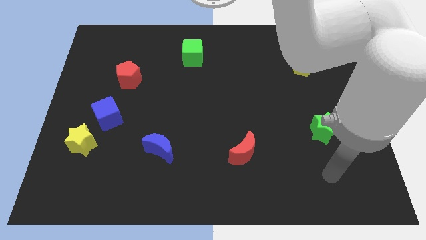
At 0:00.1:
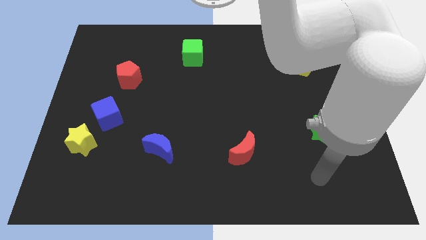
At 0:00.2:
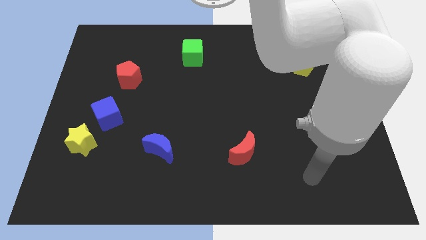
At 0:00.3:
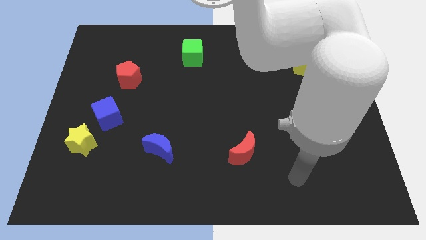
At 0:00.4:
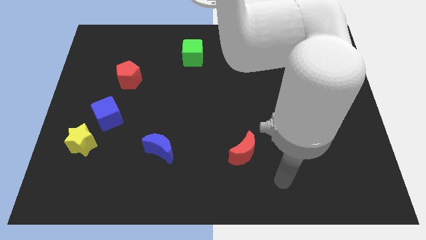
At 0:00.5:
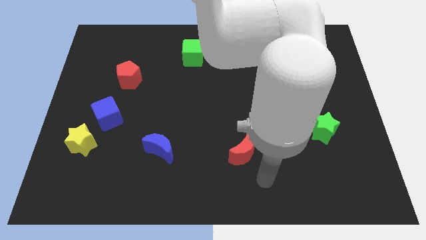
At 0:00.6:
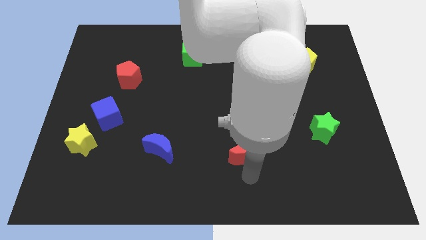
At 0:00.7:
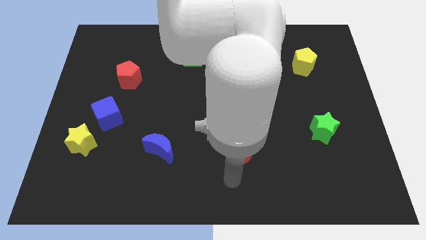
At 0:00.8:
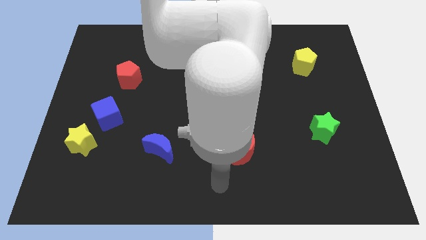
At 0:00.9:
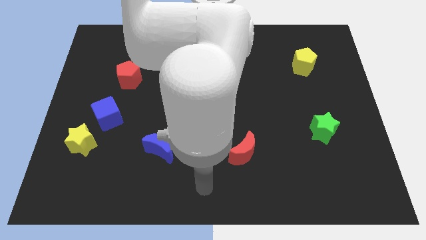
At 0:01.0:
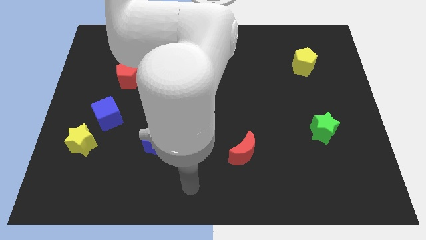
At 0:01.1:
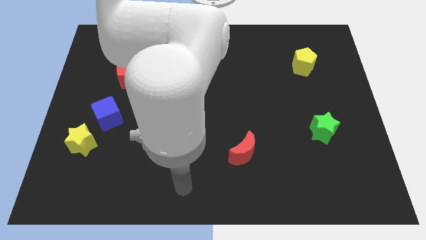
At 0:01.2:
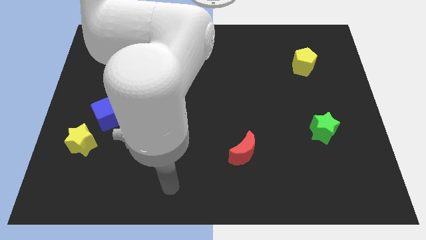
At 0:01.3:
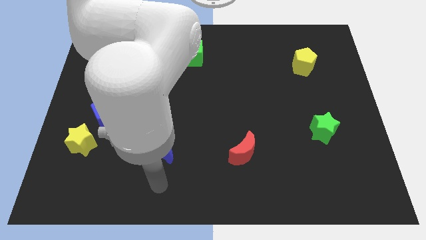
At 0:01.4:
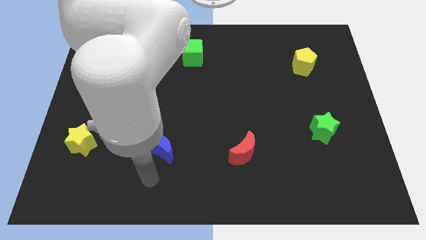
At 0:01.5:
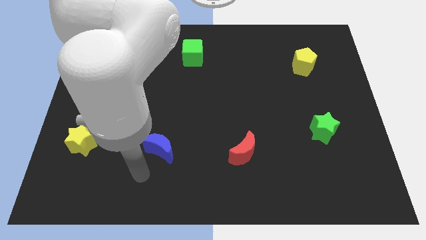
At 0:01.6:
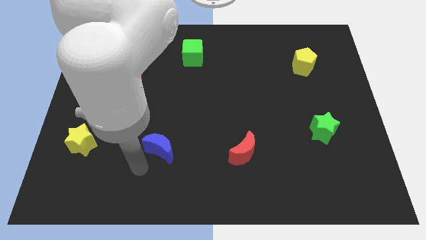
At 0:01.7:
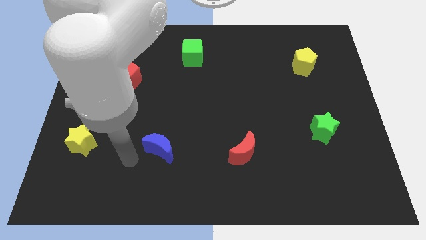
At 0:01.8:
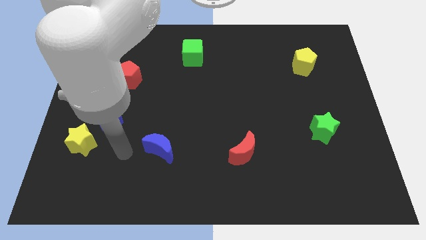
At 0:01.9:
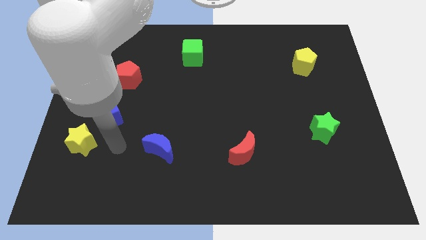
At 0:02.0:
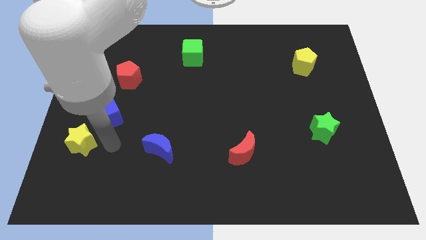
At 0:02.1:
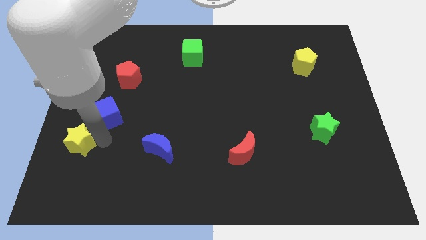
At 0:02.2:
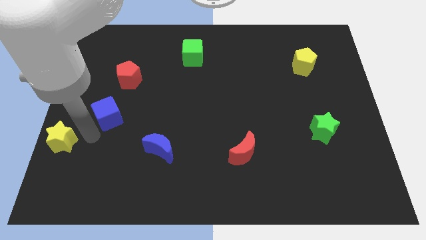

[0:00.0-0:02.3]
pull the blue cube apart from the yellow star

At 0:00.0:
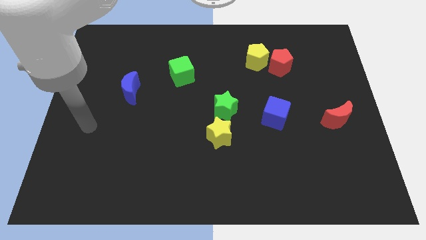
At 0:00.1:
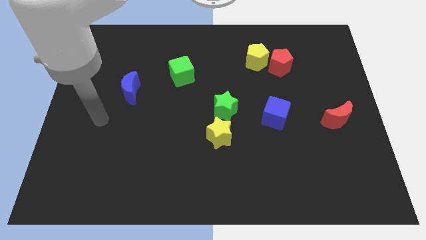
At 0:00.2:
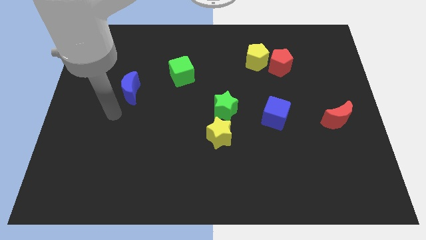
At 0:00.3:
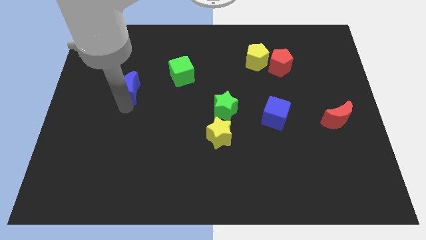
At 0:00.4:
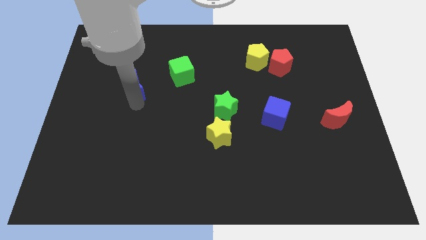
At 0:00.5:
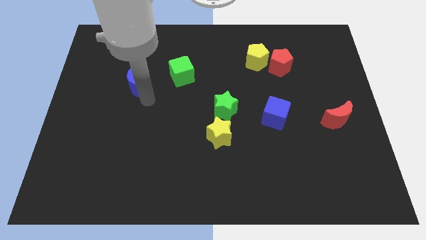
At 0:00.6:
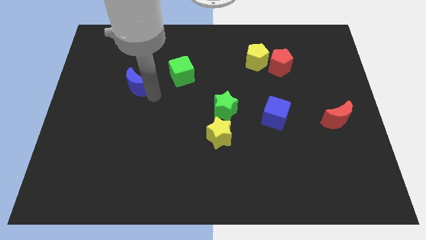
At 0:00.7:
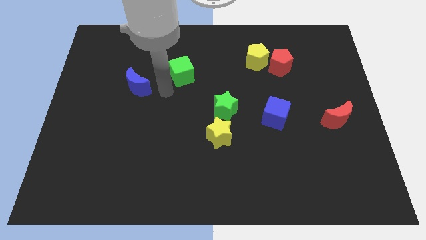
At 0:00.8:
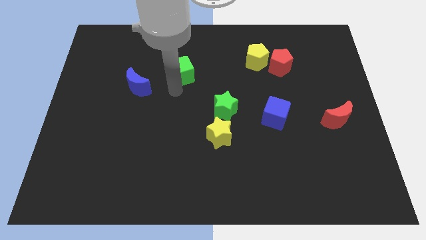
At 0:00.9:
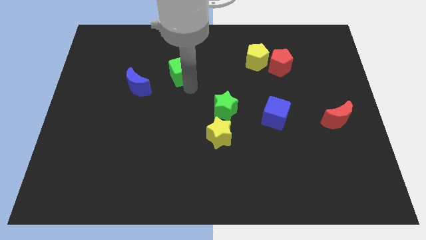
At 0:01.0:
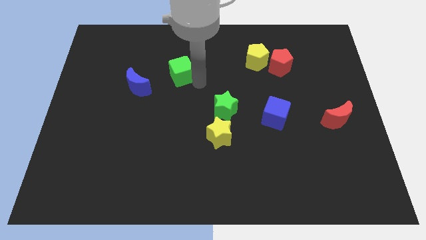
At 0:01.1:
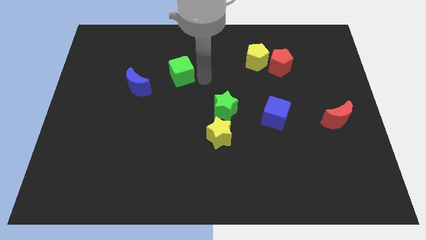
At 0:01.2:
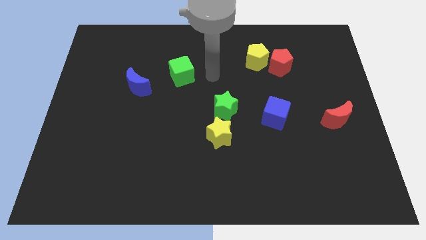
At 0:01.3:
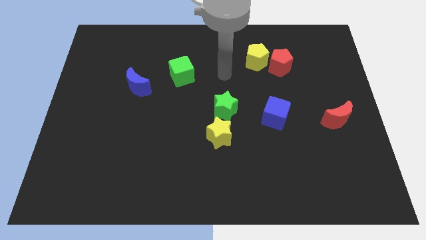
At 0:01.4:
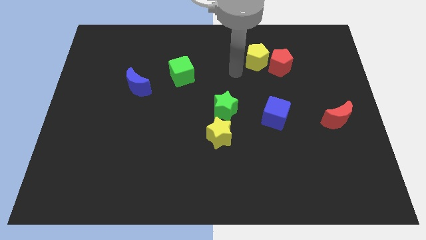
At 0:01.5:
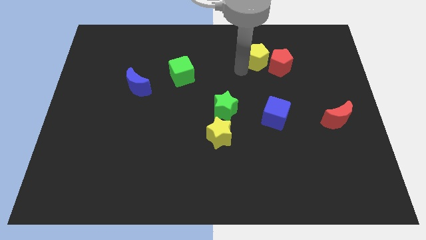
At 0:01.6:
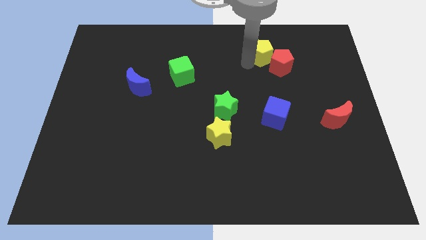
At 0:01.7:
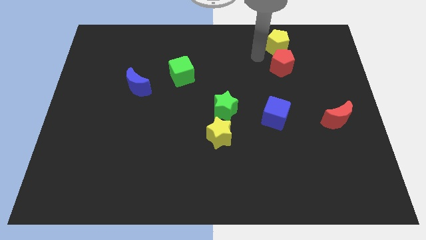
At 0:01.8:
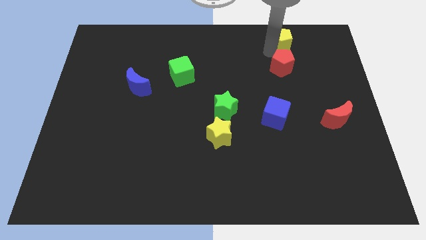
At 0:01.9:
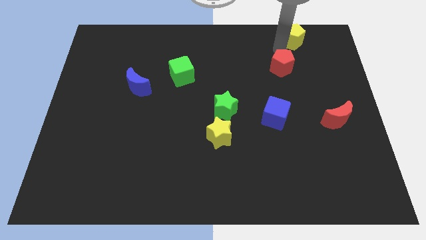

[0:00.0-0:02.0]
separate the red pentagon from the yellow pentagon

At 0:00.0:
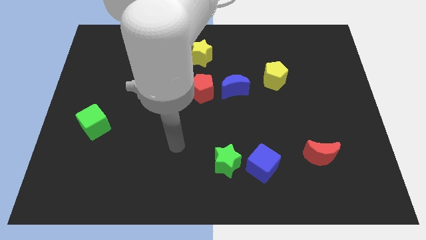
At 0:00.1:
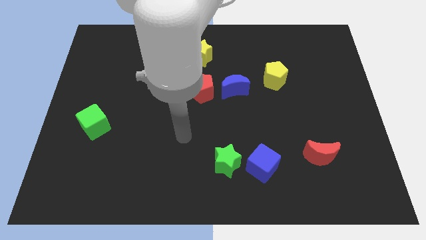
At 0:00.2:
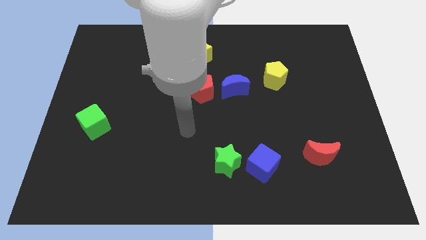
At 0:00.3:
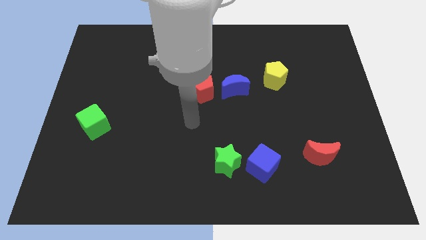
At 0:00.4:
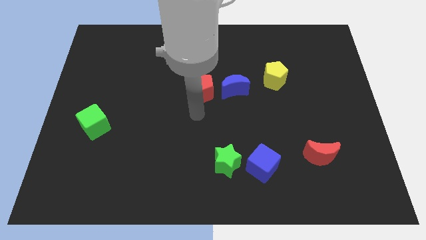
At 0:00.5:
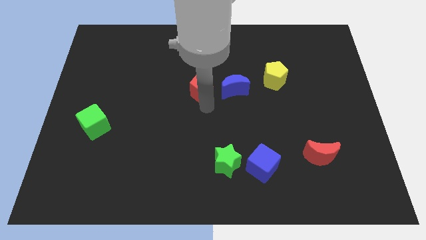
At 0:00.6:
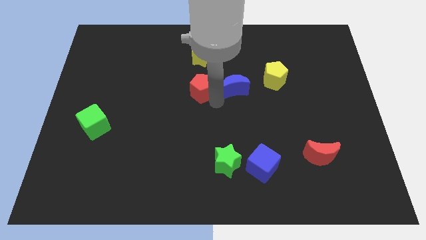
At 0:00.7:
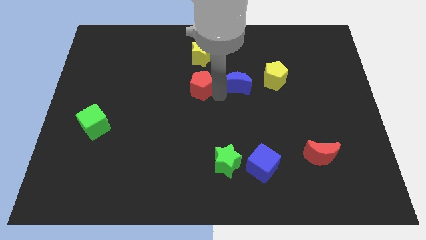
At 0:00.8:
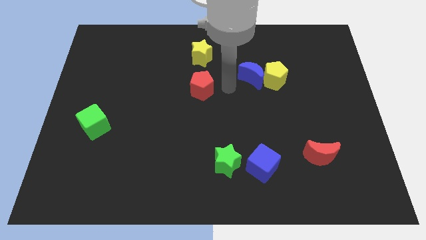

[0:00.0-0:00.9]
separate the red pentagon from the blue moon

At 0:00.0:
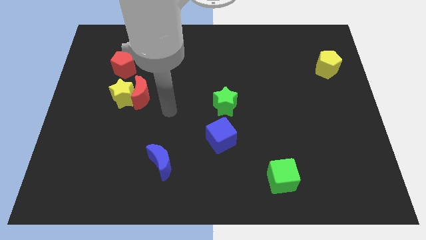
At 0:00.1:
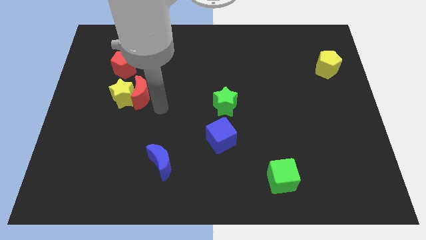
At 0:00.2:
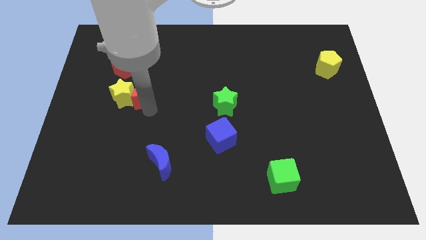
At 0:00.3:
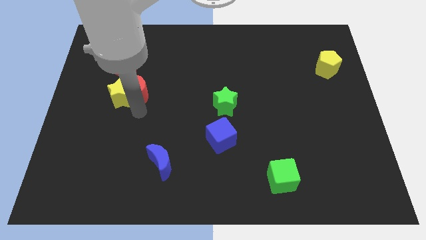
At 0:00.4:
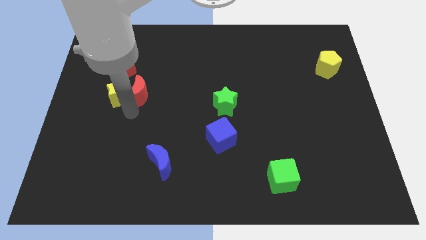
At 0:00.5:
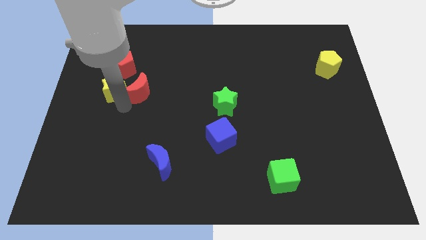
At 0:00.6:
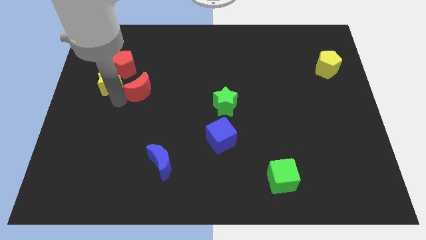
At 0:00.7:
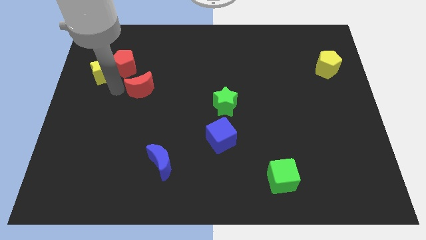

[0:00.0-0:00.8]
move the red moon away from the yellow star

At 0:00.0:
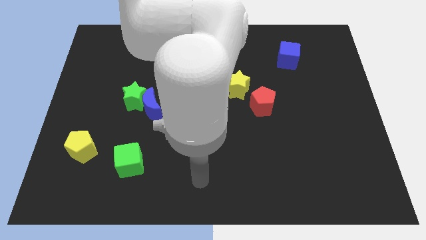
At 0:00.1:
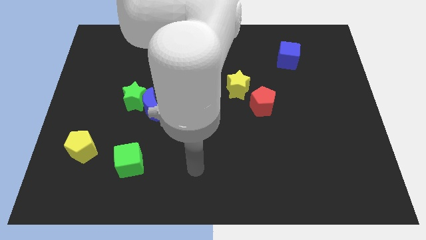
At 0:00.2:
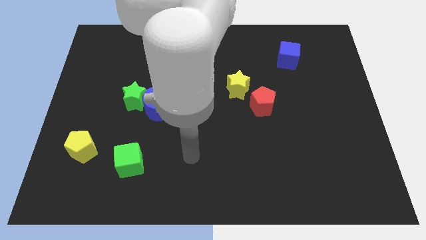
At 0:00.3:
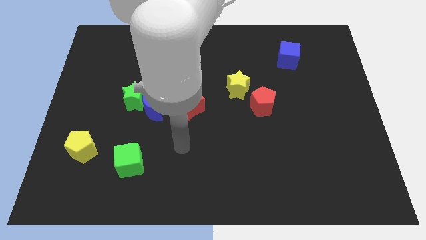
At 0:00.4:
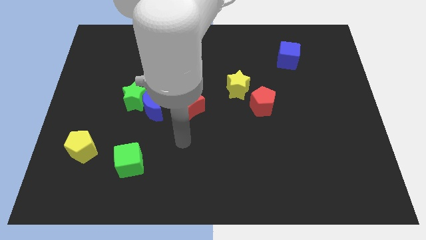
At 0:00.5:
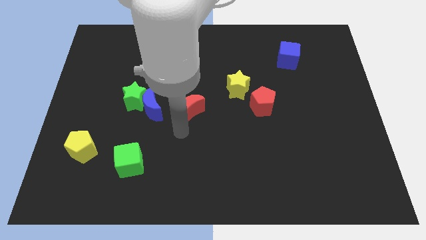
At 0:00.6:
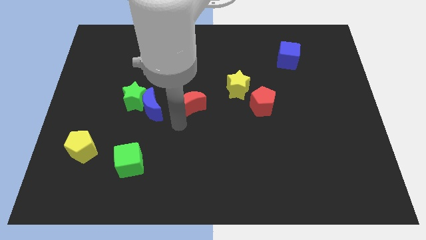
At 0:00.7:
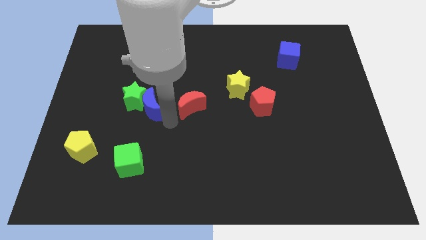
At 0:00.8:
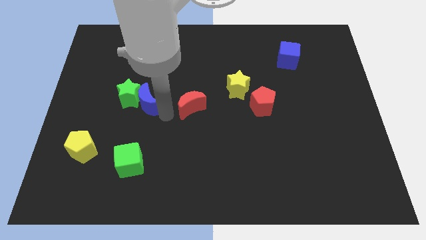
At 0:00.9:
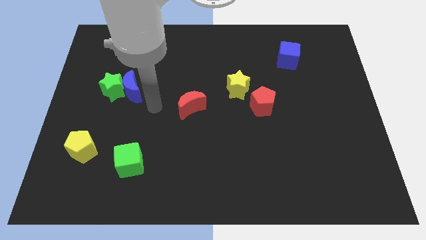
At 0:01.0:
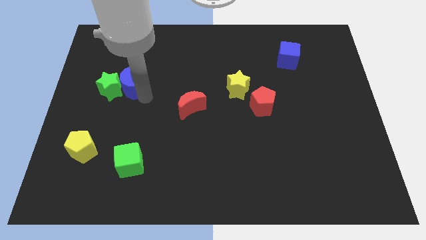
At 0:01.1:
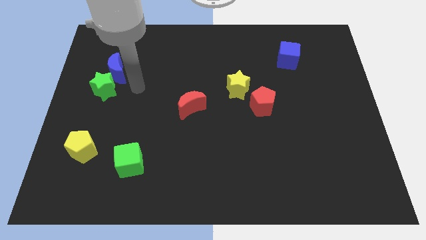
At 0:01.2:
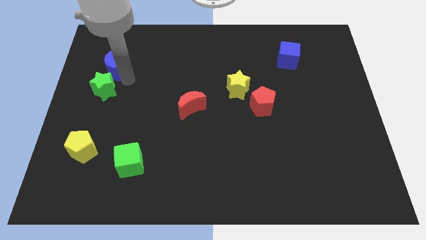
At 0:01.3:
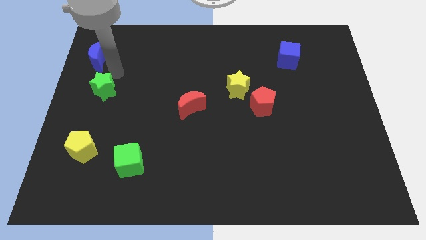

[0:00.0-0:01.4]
pull the green star apart from the blue moon

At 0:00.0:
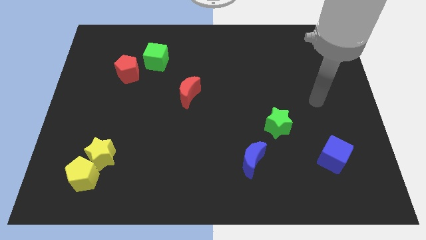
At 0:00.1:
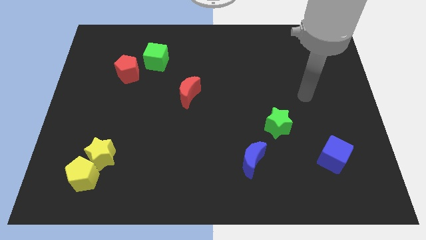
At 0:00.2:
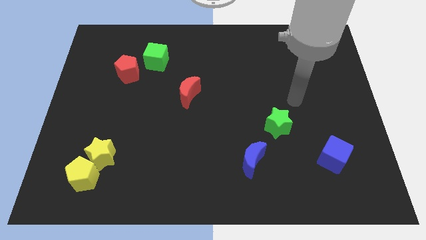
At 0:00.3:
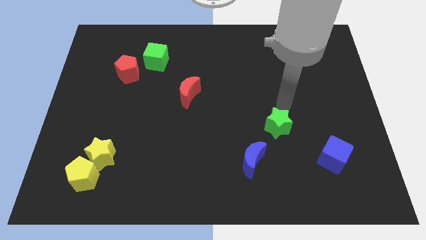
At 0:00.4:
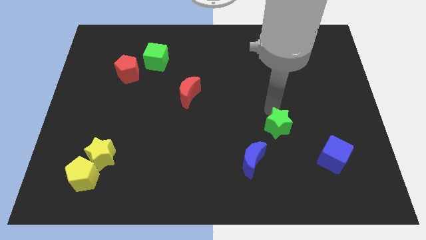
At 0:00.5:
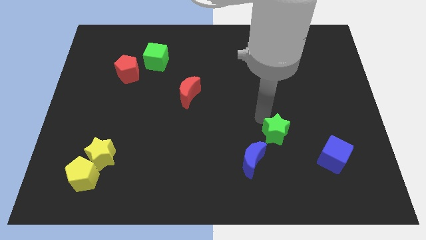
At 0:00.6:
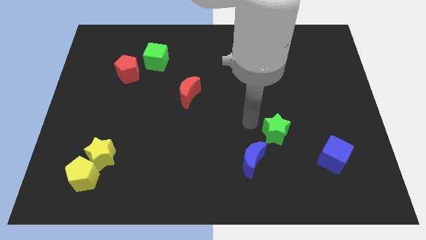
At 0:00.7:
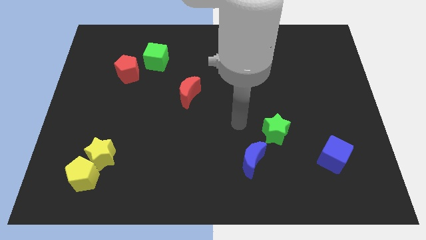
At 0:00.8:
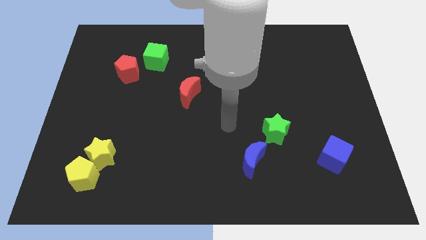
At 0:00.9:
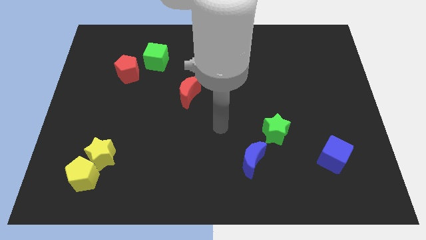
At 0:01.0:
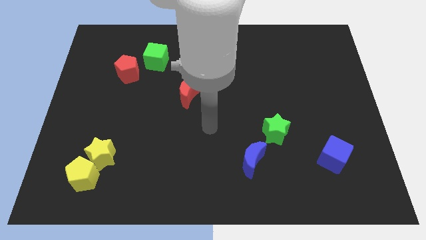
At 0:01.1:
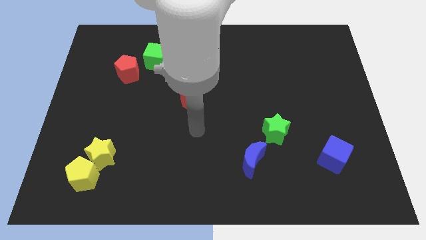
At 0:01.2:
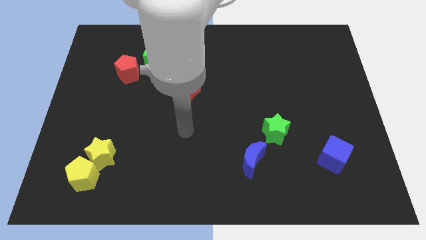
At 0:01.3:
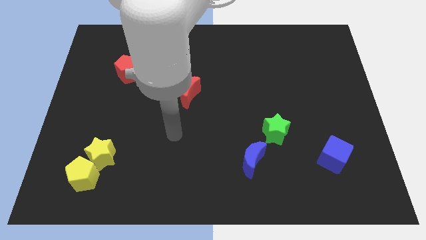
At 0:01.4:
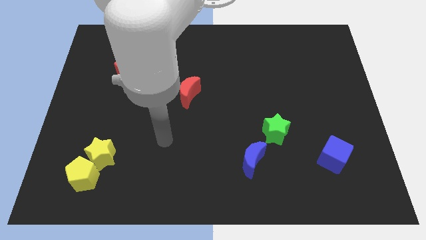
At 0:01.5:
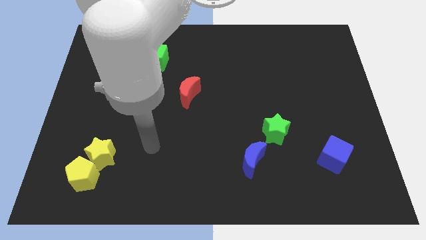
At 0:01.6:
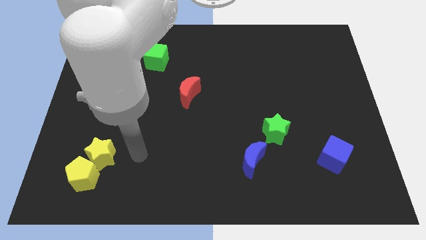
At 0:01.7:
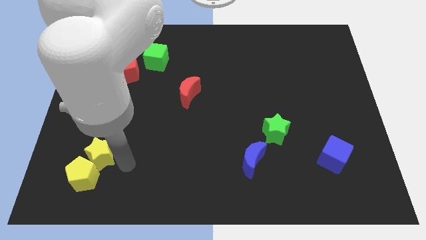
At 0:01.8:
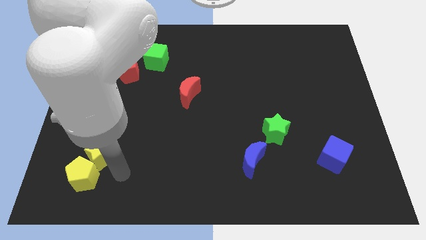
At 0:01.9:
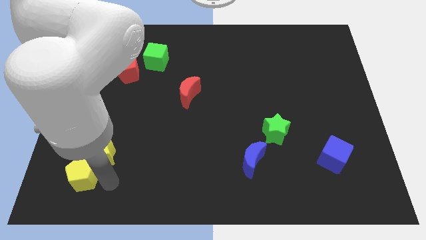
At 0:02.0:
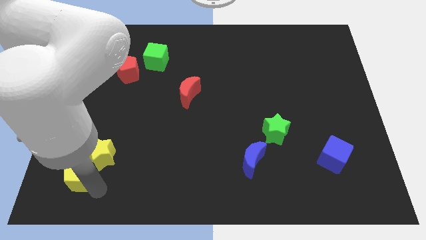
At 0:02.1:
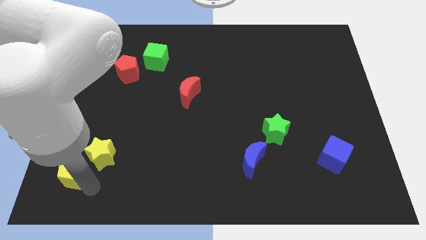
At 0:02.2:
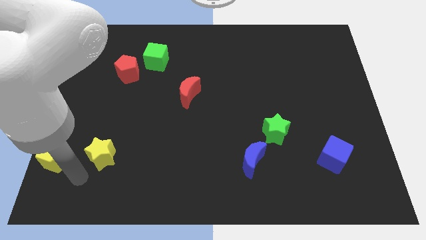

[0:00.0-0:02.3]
pull the yellow star apart from the yellow pentagon
